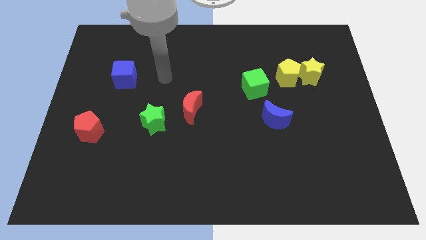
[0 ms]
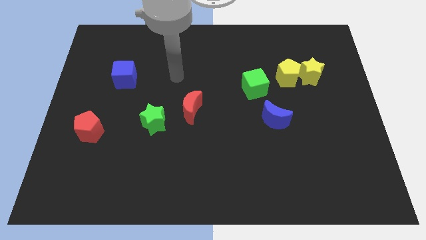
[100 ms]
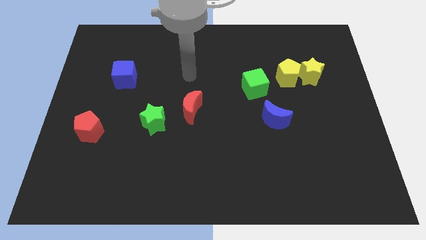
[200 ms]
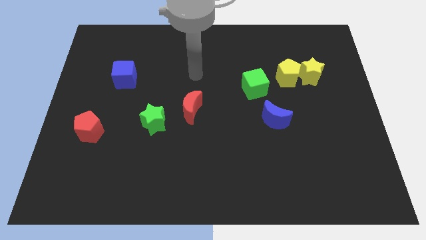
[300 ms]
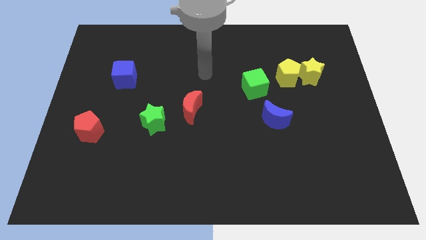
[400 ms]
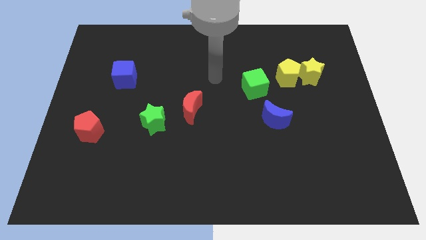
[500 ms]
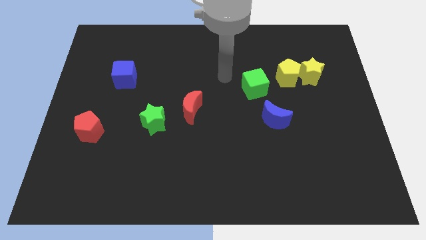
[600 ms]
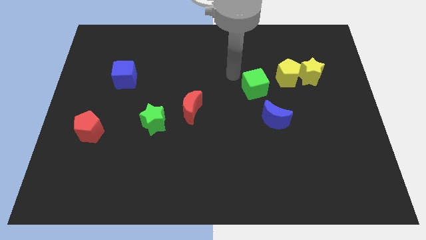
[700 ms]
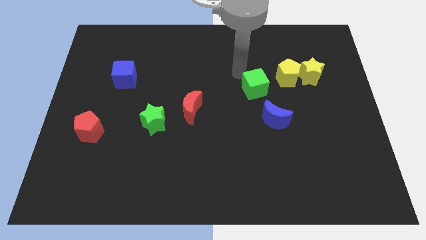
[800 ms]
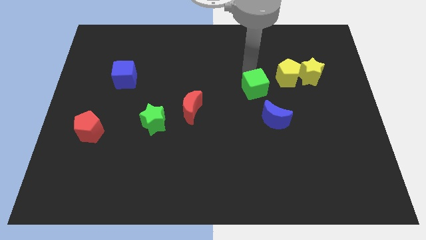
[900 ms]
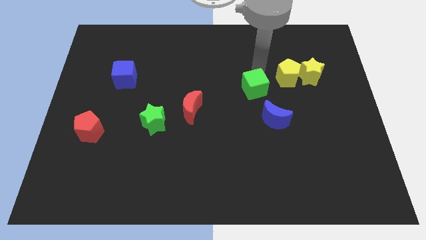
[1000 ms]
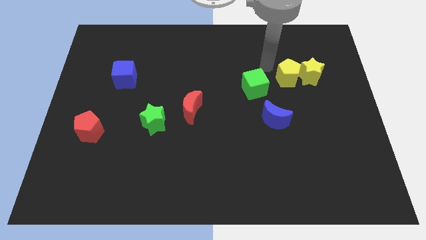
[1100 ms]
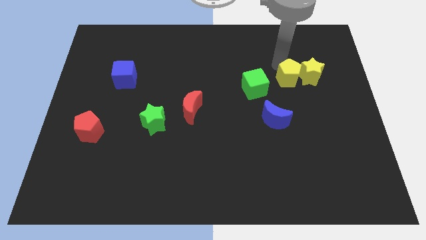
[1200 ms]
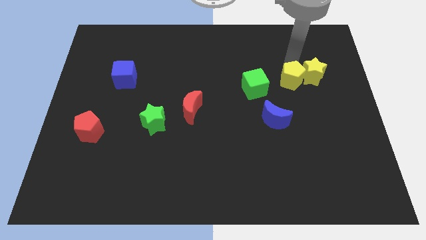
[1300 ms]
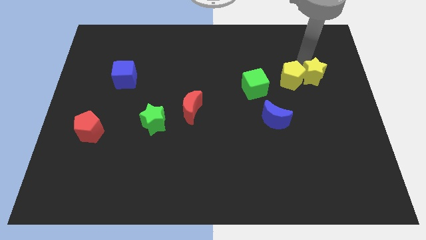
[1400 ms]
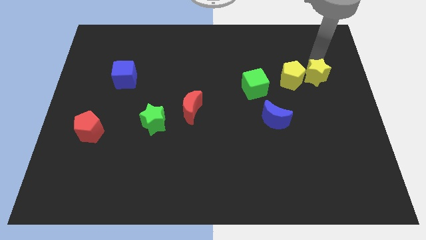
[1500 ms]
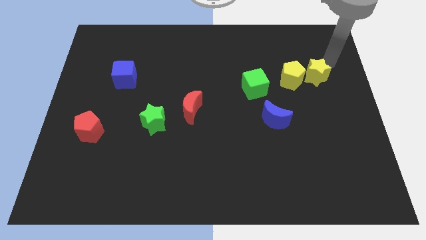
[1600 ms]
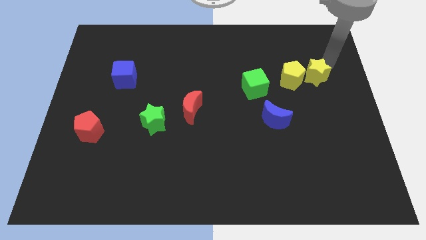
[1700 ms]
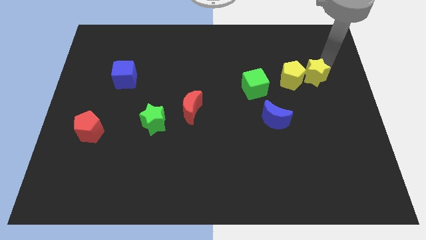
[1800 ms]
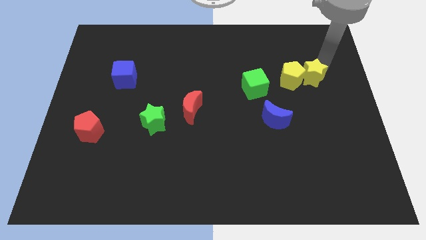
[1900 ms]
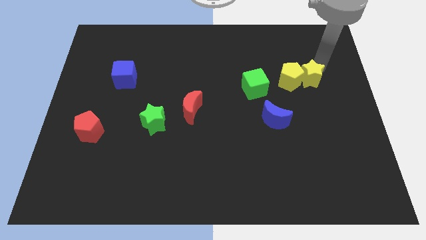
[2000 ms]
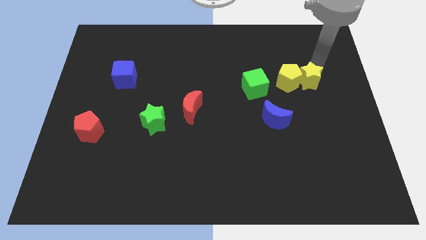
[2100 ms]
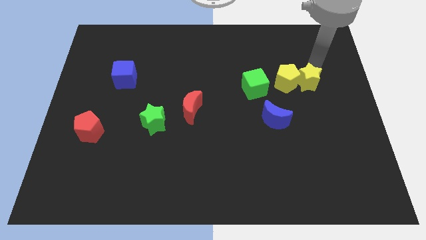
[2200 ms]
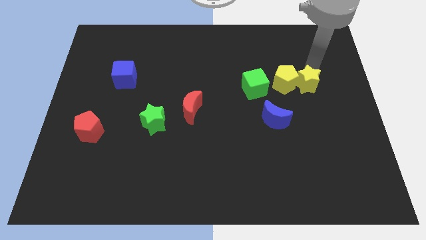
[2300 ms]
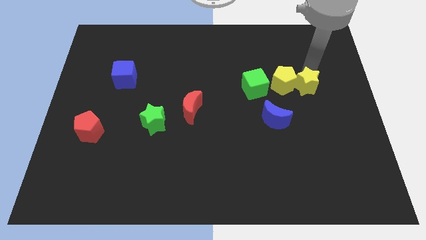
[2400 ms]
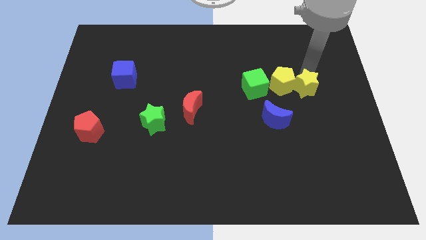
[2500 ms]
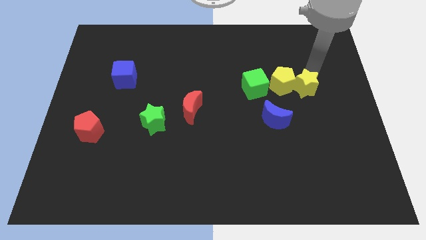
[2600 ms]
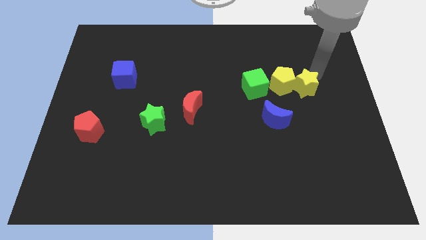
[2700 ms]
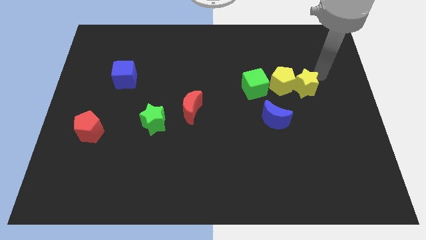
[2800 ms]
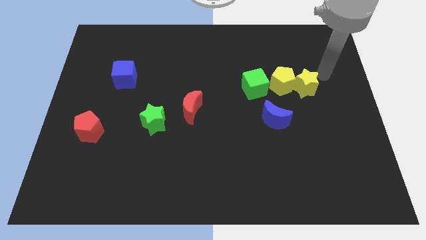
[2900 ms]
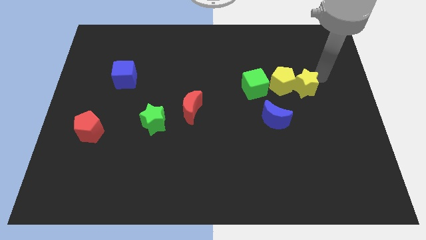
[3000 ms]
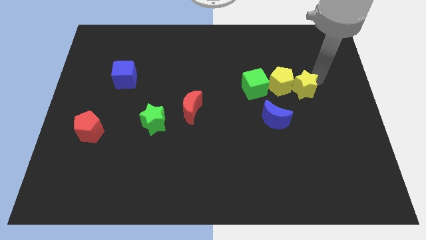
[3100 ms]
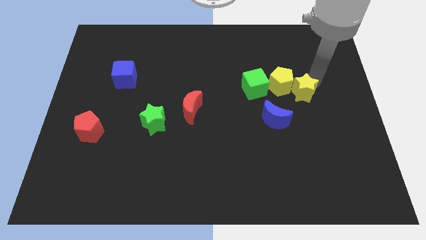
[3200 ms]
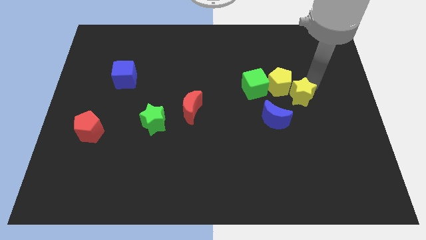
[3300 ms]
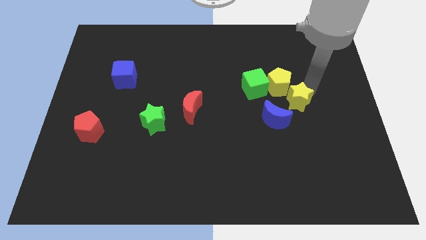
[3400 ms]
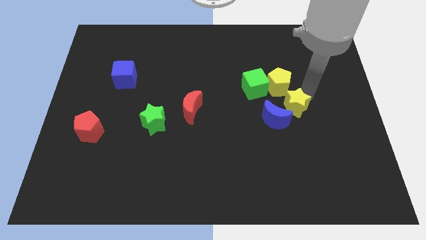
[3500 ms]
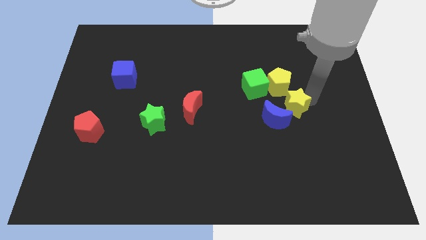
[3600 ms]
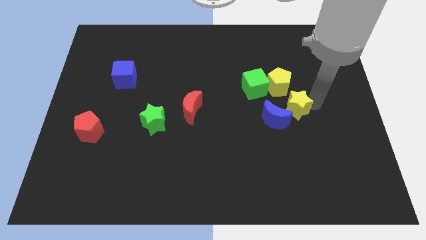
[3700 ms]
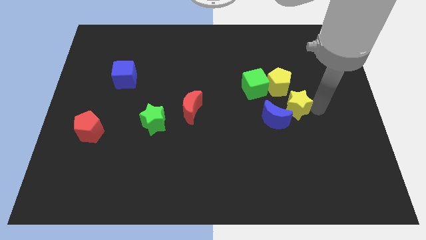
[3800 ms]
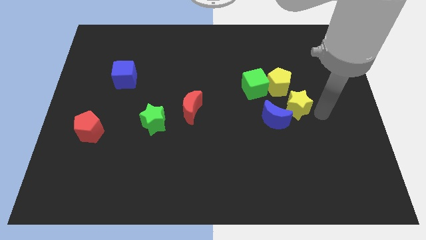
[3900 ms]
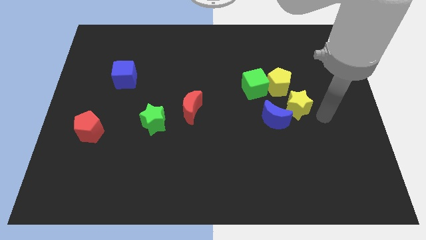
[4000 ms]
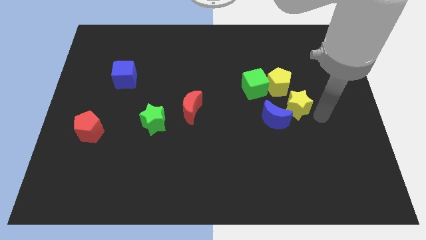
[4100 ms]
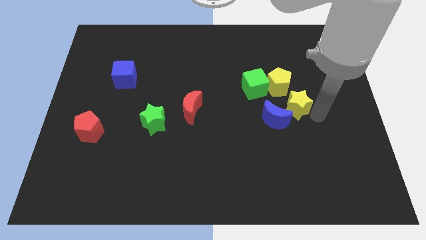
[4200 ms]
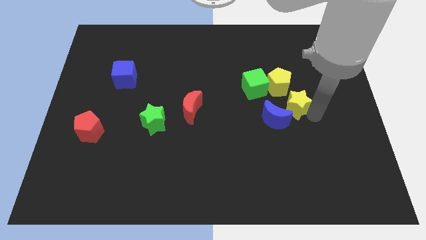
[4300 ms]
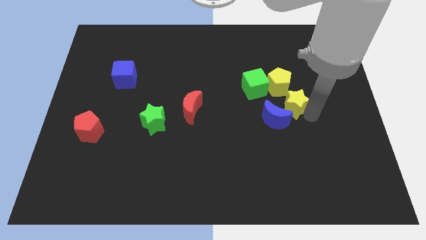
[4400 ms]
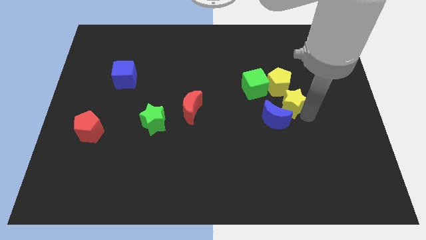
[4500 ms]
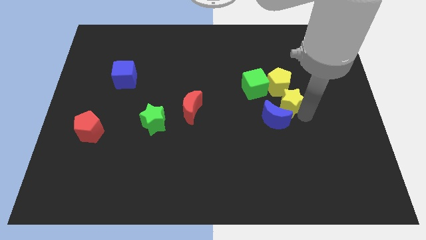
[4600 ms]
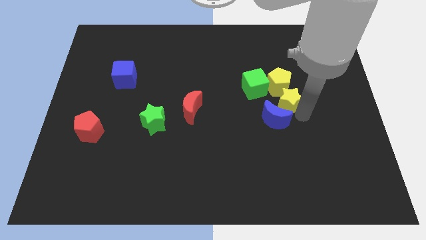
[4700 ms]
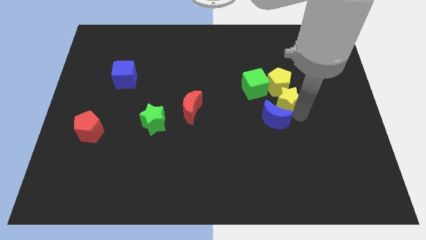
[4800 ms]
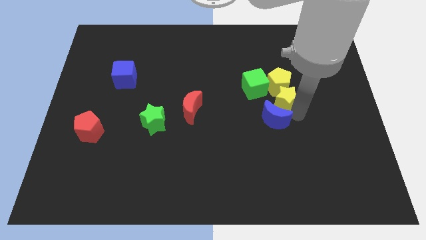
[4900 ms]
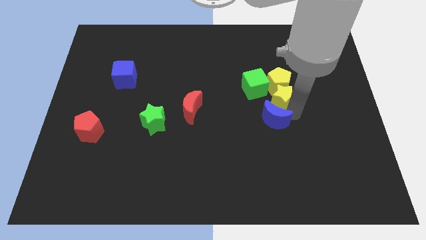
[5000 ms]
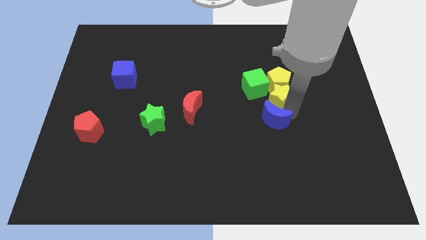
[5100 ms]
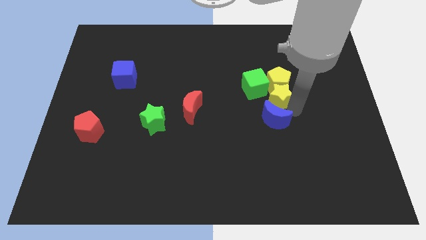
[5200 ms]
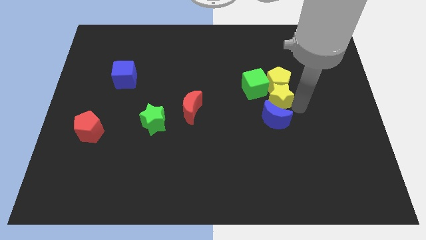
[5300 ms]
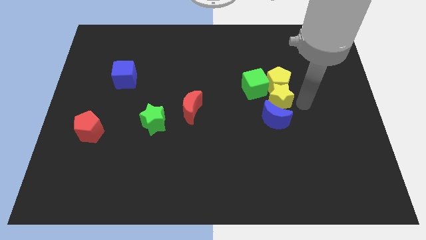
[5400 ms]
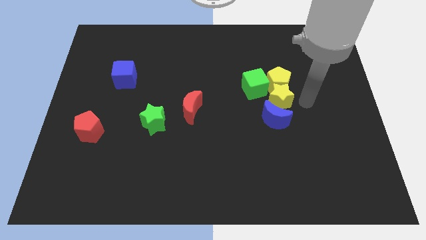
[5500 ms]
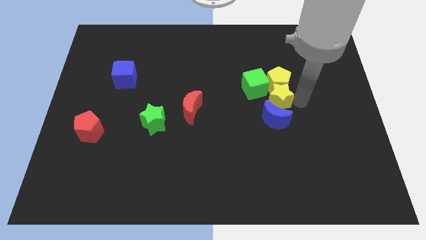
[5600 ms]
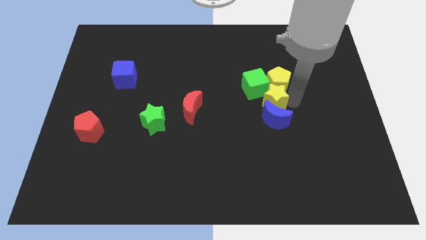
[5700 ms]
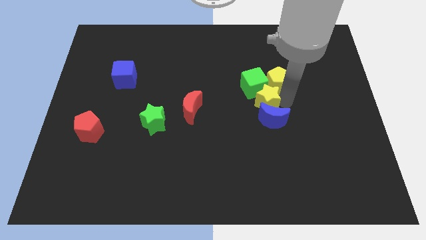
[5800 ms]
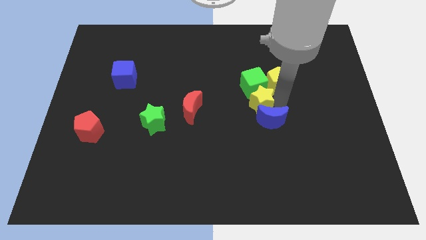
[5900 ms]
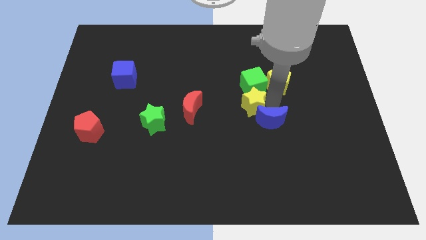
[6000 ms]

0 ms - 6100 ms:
push the yellow star to the bottom left of the green cube

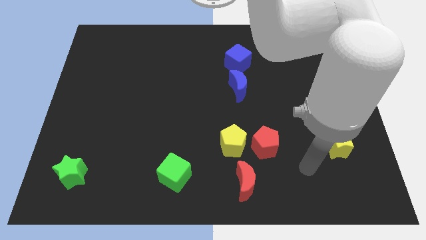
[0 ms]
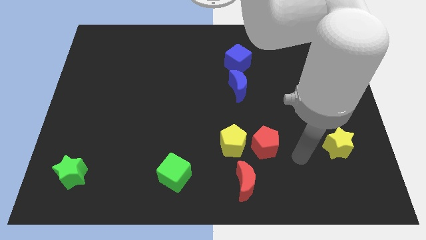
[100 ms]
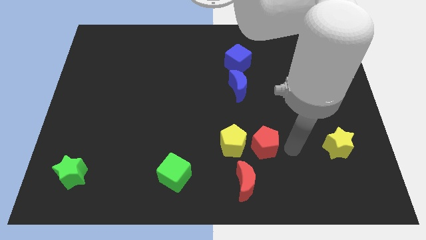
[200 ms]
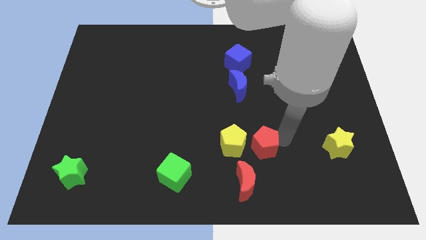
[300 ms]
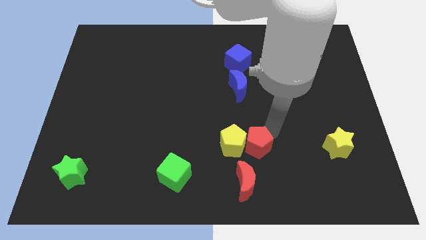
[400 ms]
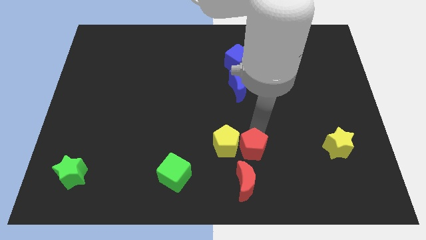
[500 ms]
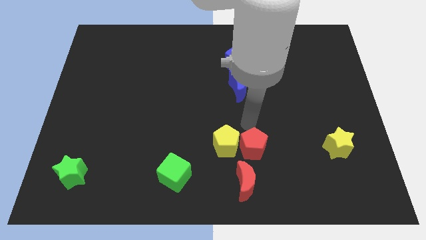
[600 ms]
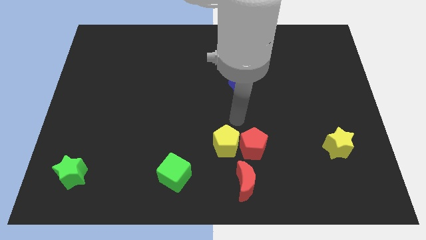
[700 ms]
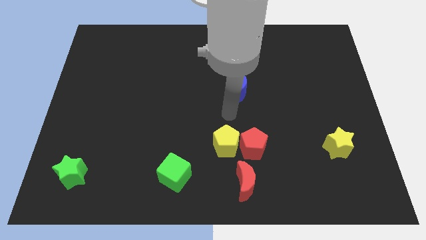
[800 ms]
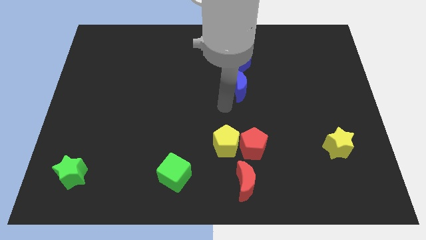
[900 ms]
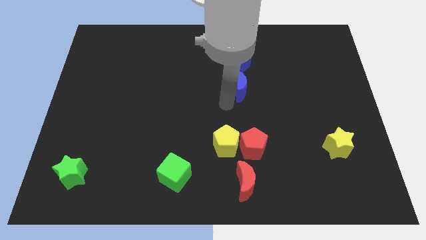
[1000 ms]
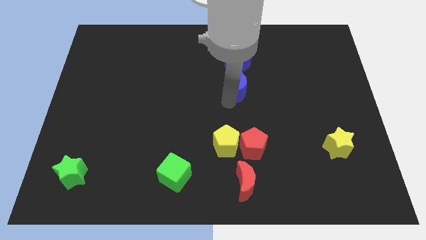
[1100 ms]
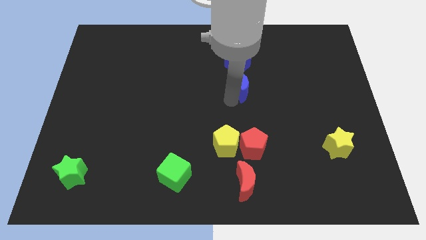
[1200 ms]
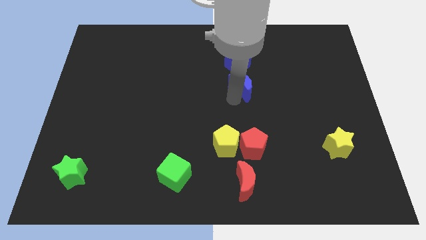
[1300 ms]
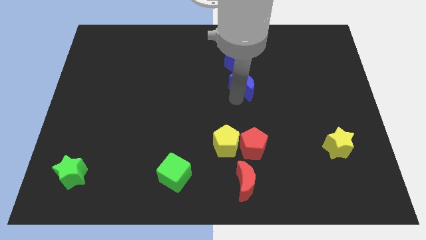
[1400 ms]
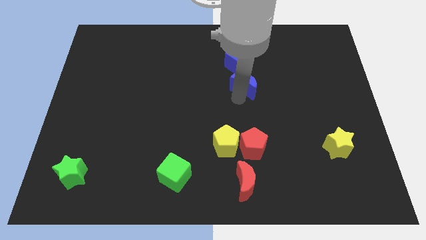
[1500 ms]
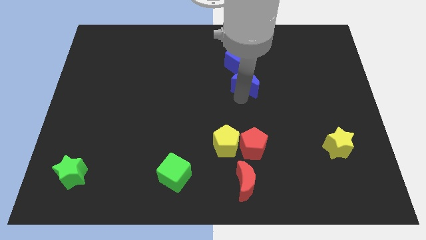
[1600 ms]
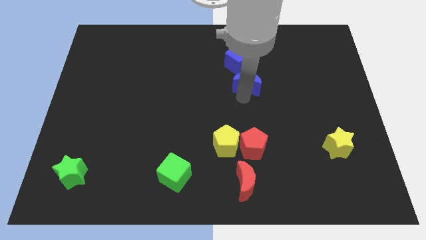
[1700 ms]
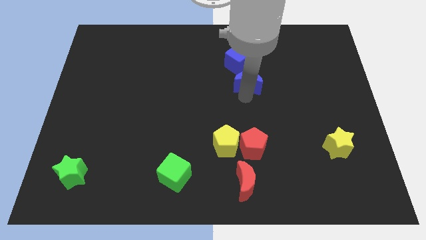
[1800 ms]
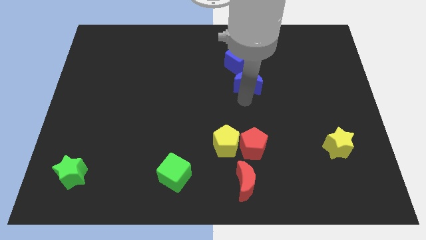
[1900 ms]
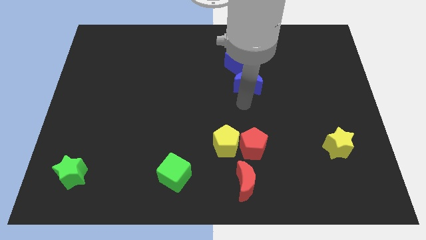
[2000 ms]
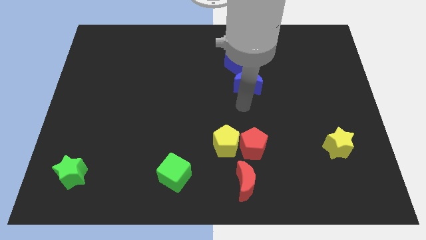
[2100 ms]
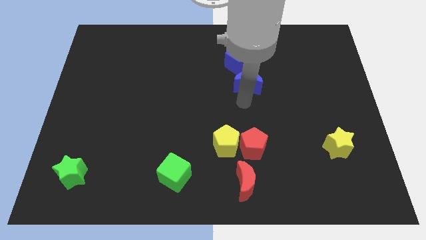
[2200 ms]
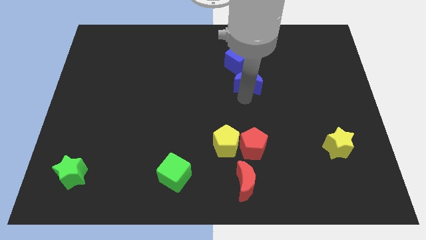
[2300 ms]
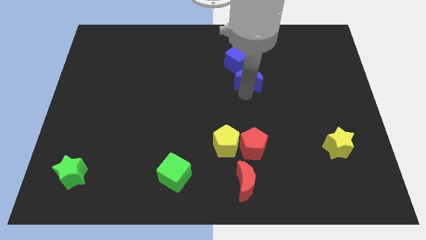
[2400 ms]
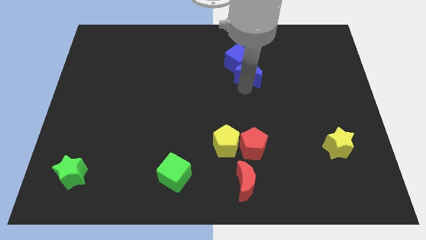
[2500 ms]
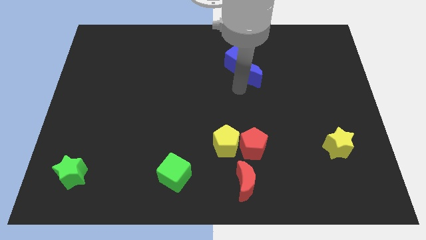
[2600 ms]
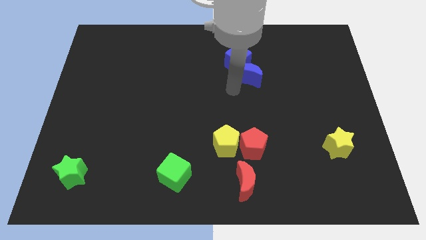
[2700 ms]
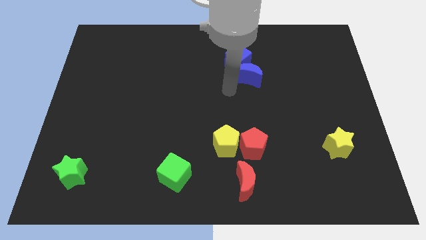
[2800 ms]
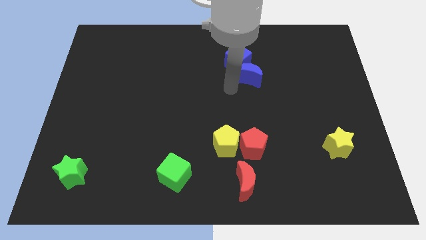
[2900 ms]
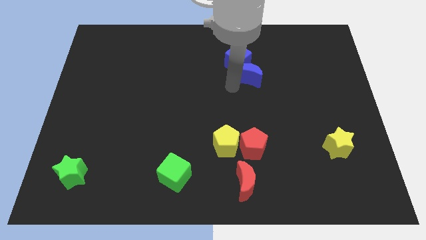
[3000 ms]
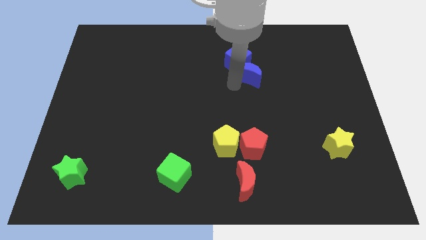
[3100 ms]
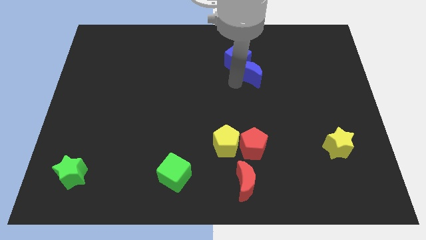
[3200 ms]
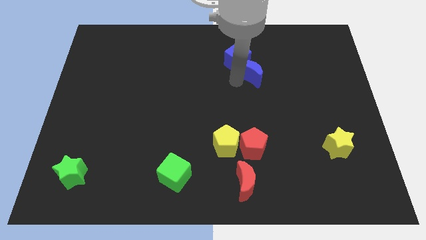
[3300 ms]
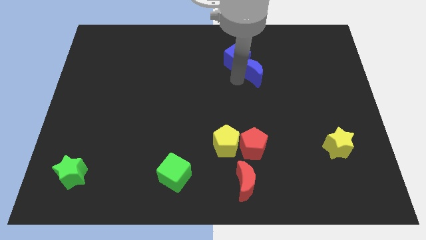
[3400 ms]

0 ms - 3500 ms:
put the blue moon right of the blue cube
